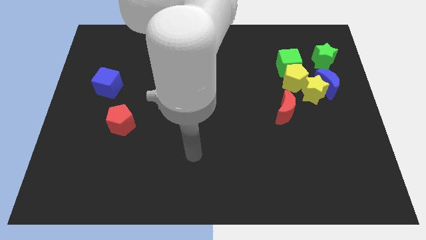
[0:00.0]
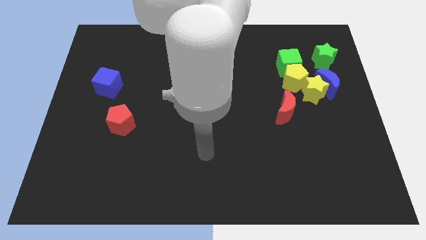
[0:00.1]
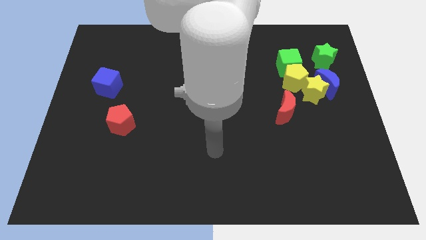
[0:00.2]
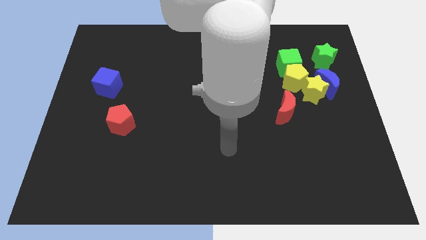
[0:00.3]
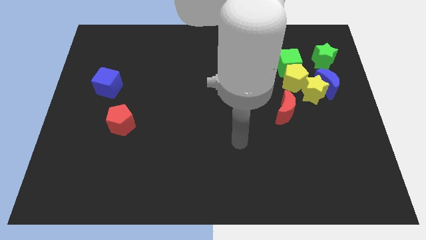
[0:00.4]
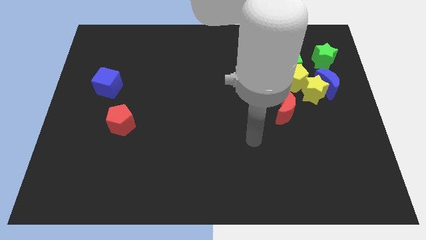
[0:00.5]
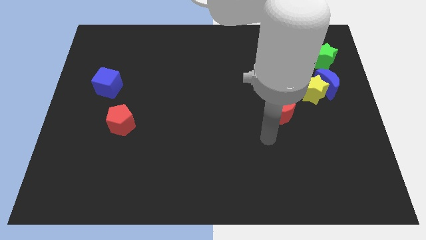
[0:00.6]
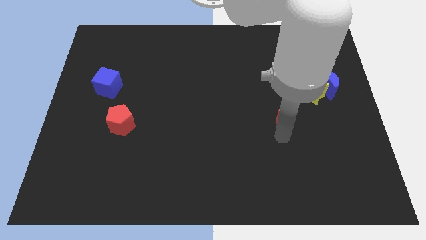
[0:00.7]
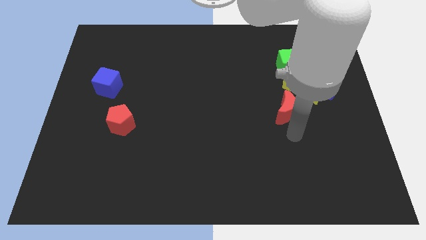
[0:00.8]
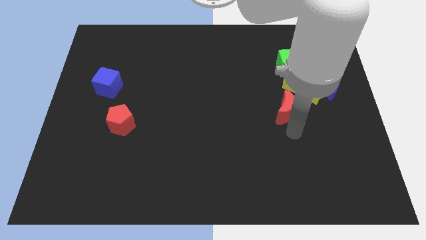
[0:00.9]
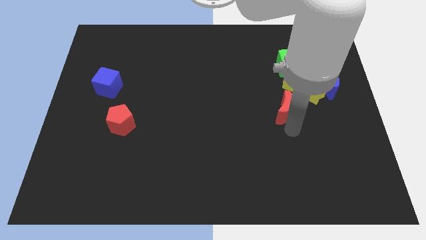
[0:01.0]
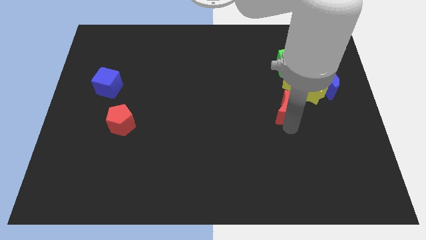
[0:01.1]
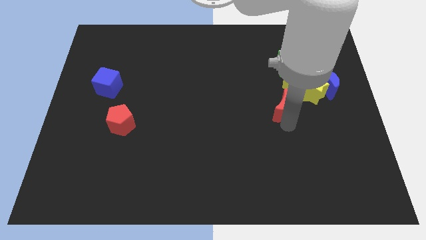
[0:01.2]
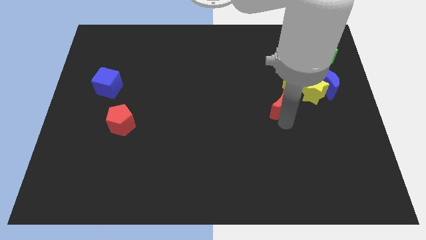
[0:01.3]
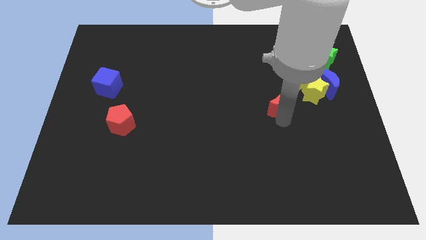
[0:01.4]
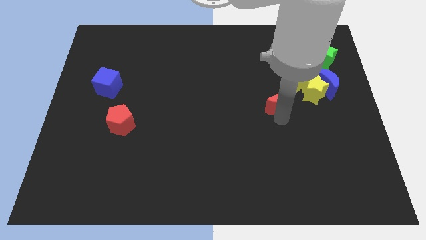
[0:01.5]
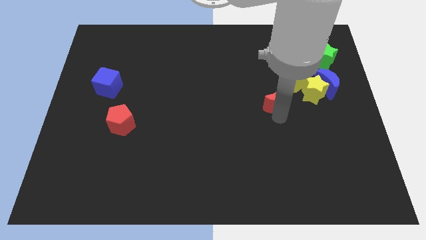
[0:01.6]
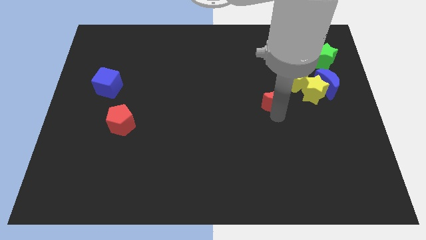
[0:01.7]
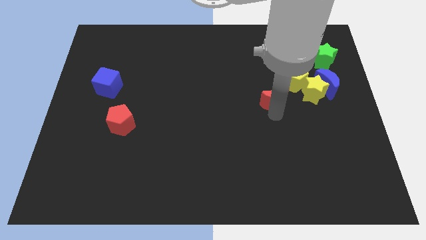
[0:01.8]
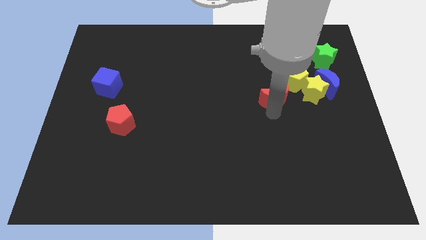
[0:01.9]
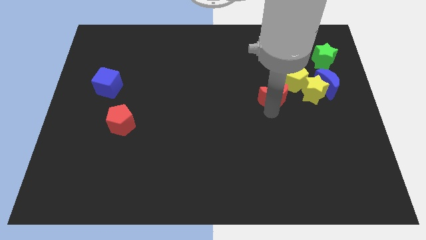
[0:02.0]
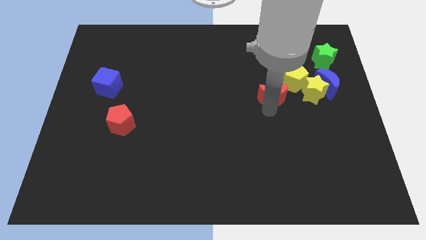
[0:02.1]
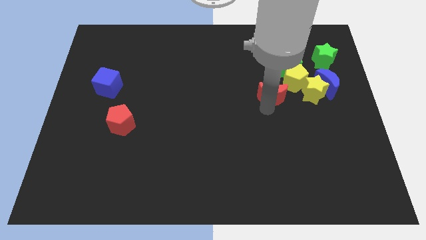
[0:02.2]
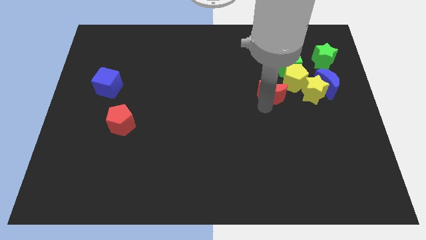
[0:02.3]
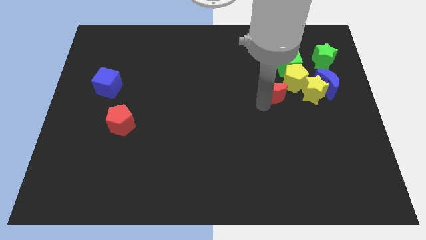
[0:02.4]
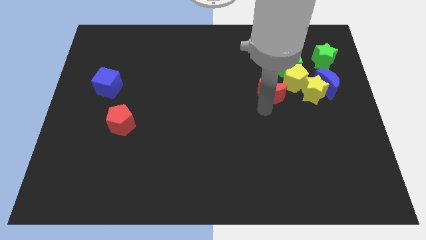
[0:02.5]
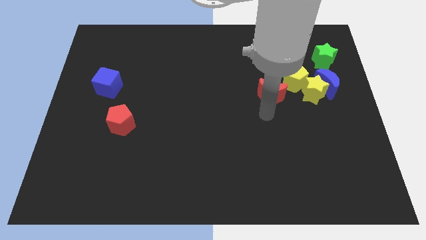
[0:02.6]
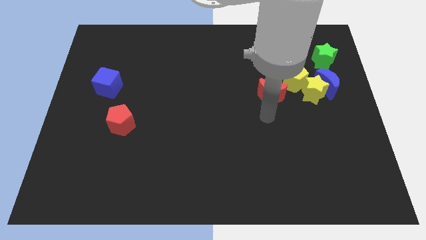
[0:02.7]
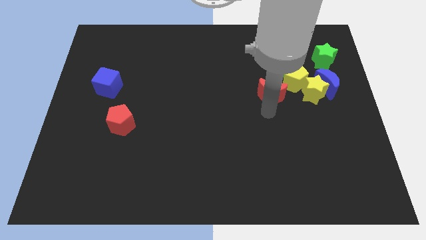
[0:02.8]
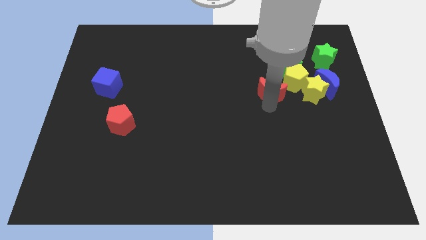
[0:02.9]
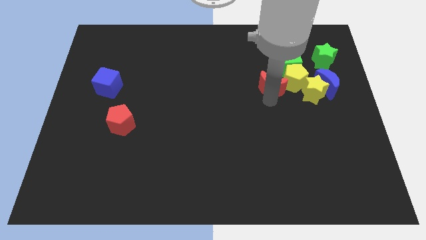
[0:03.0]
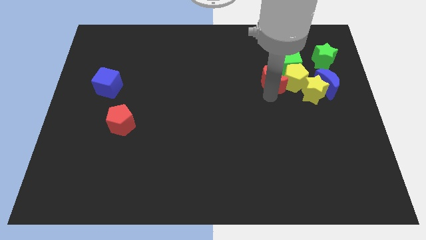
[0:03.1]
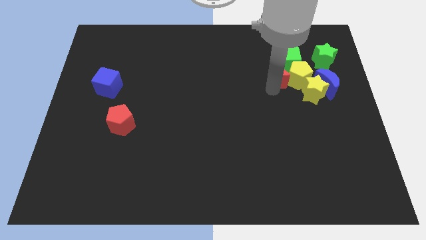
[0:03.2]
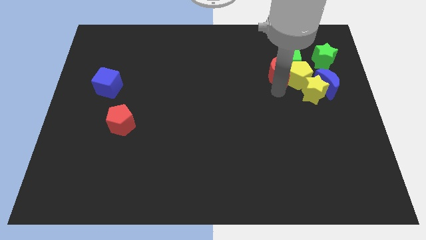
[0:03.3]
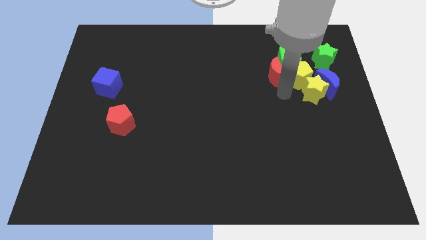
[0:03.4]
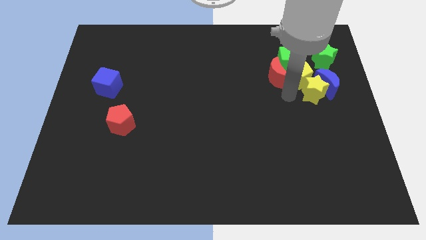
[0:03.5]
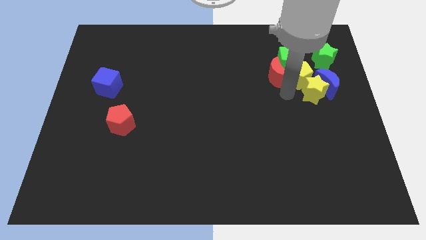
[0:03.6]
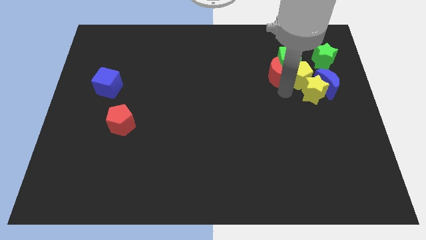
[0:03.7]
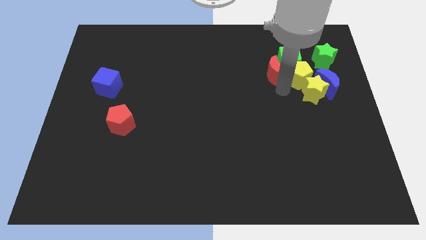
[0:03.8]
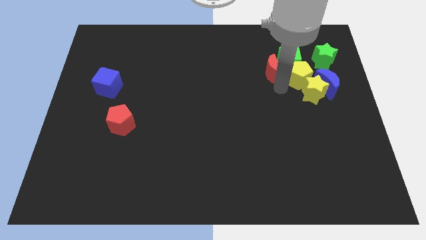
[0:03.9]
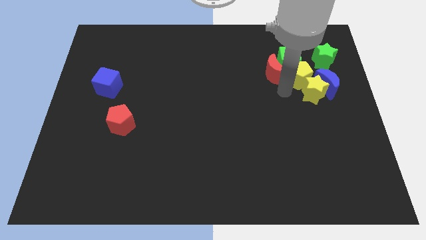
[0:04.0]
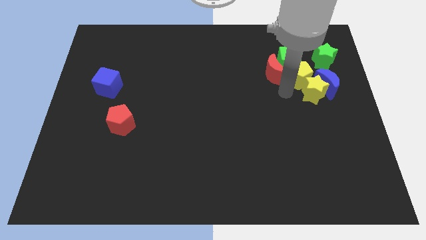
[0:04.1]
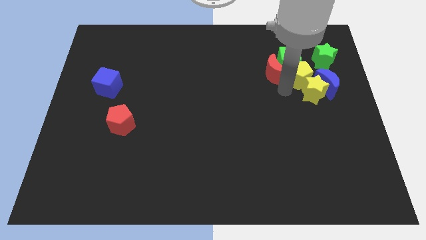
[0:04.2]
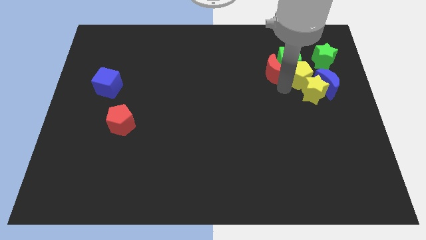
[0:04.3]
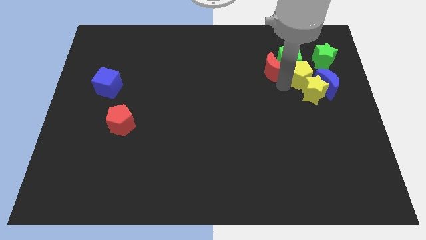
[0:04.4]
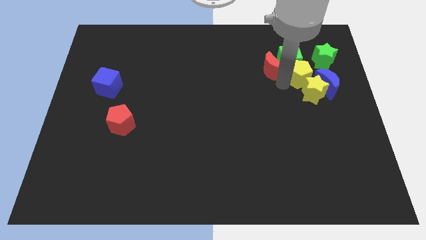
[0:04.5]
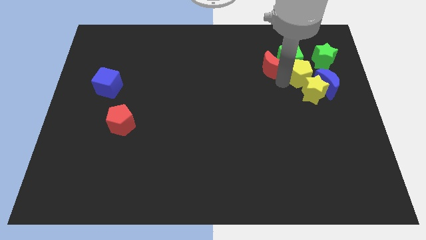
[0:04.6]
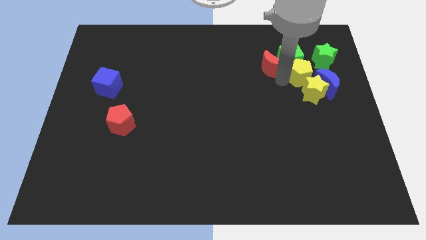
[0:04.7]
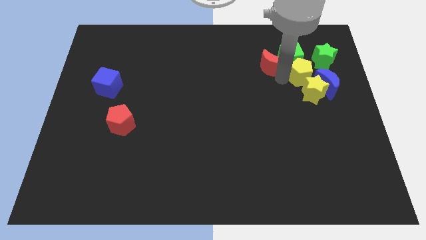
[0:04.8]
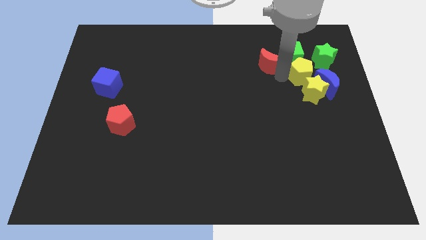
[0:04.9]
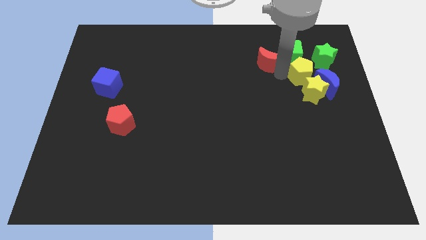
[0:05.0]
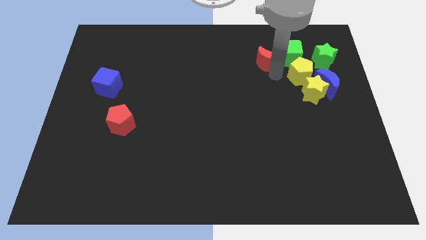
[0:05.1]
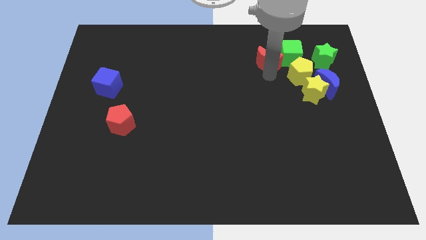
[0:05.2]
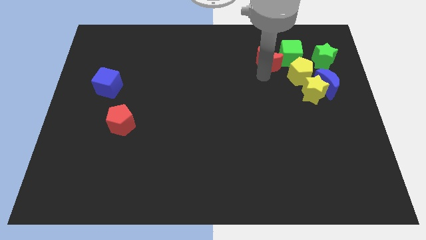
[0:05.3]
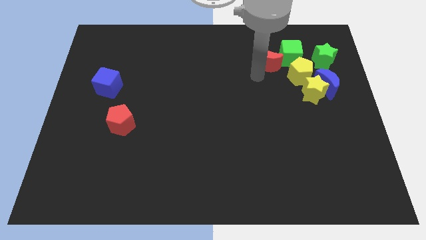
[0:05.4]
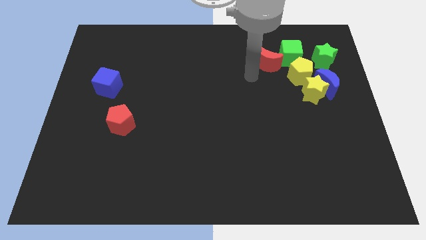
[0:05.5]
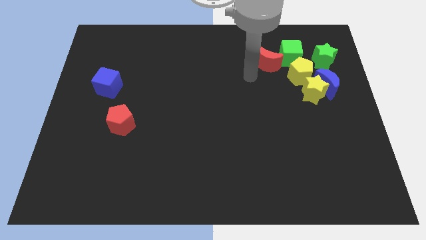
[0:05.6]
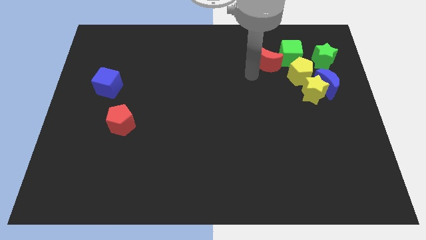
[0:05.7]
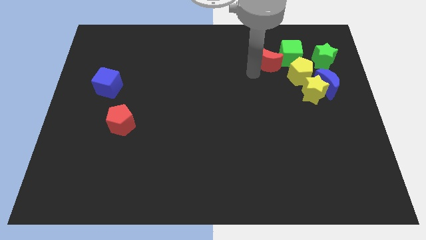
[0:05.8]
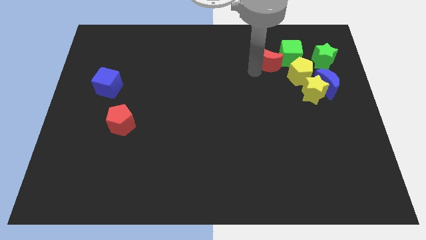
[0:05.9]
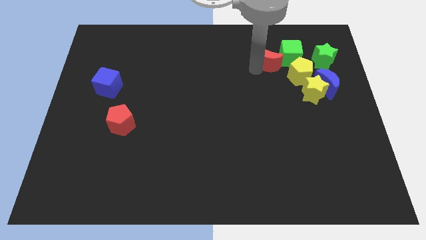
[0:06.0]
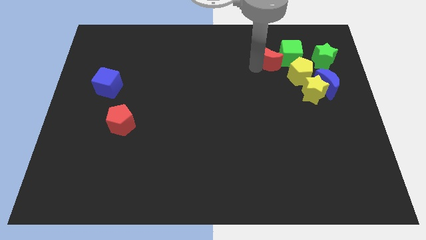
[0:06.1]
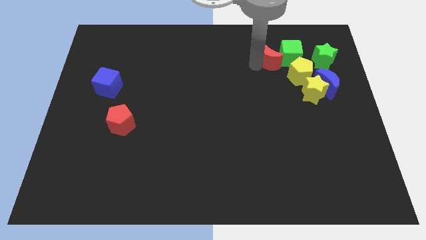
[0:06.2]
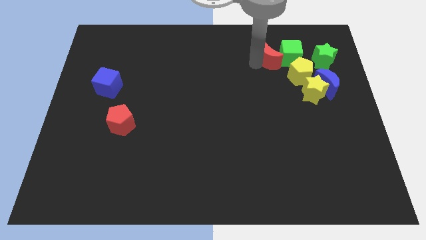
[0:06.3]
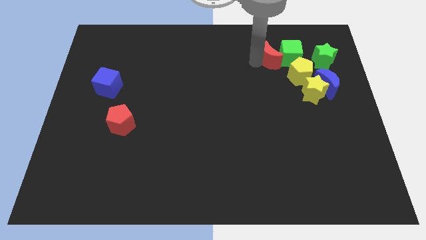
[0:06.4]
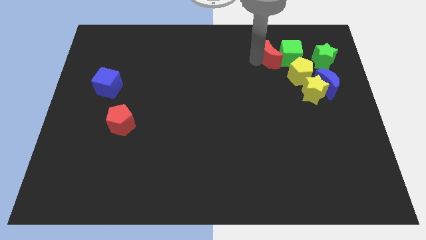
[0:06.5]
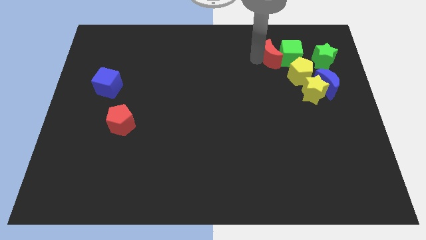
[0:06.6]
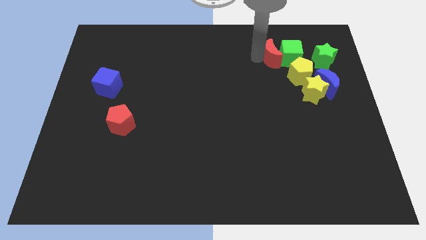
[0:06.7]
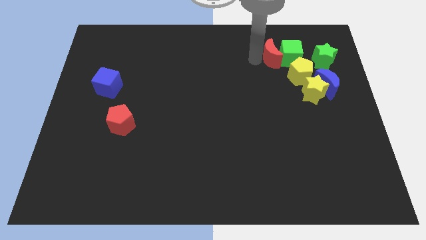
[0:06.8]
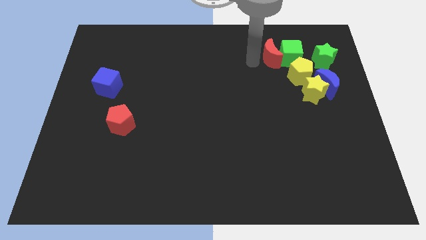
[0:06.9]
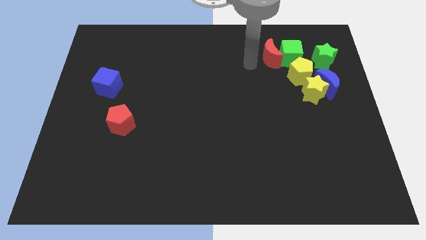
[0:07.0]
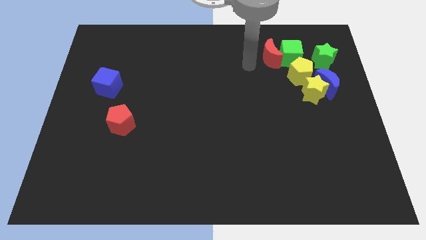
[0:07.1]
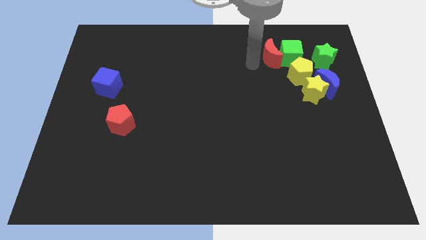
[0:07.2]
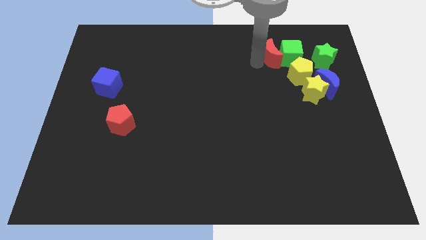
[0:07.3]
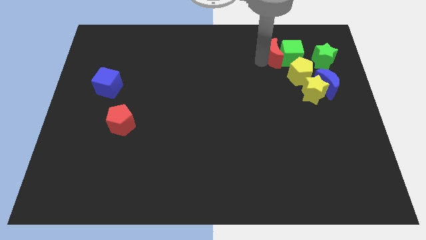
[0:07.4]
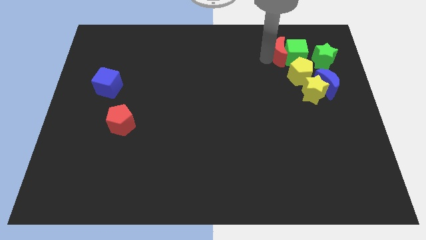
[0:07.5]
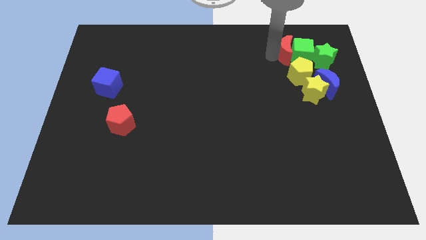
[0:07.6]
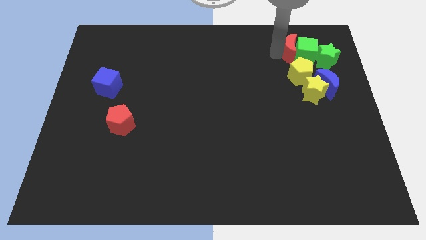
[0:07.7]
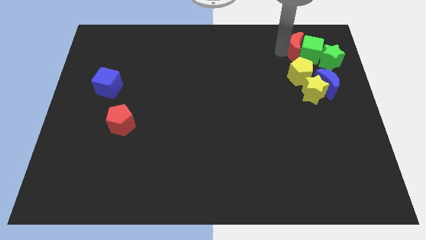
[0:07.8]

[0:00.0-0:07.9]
put the red moon above the yellow star
